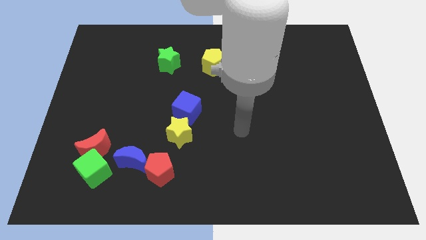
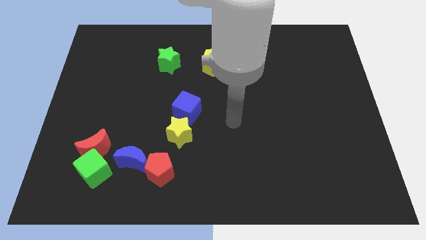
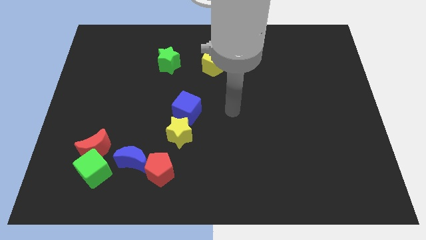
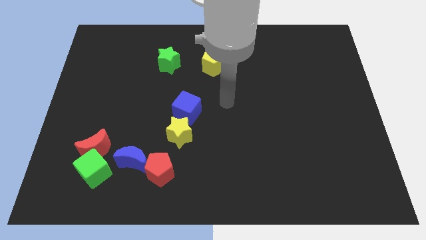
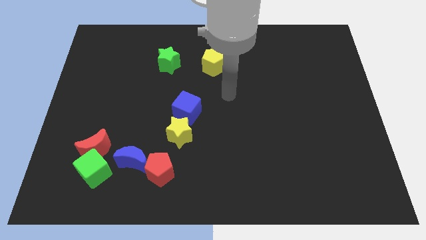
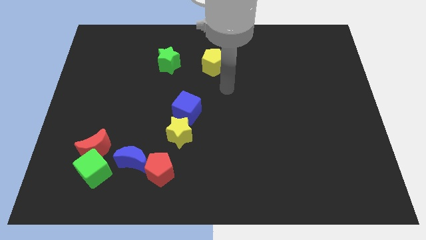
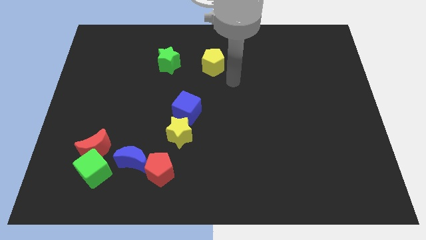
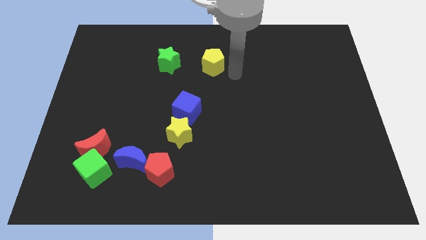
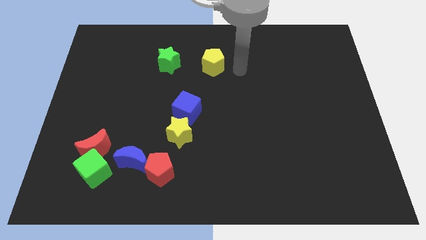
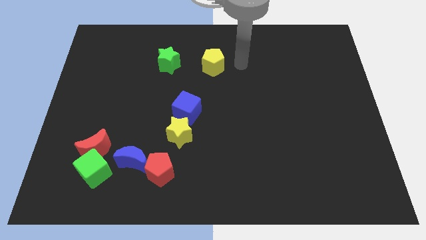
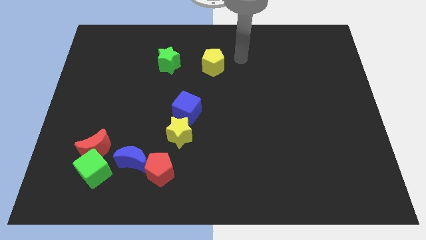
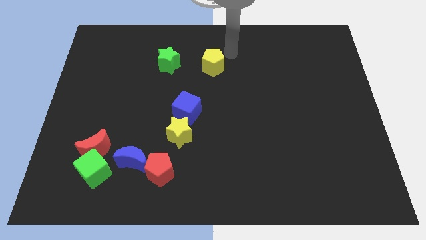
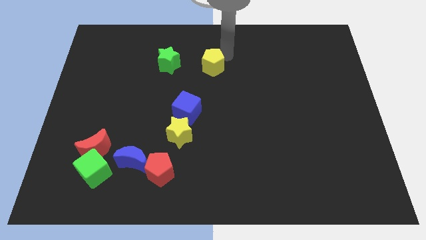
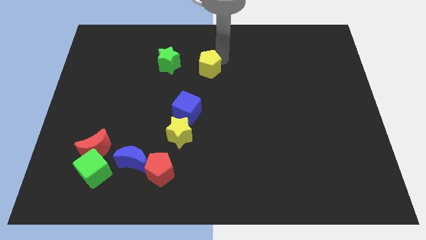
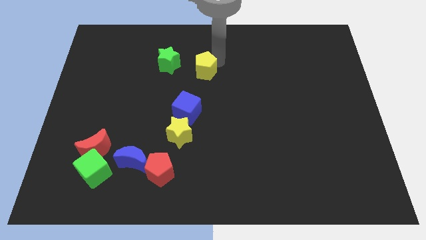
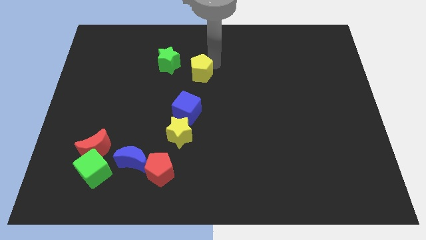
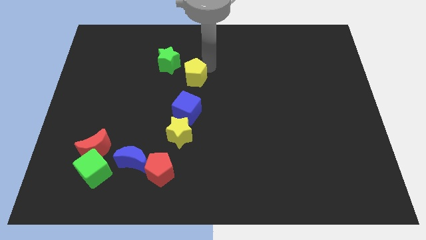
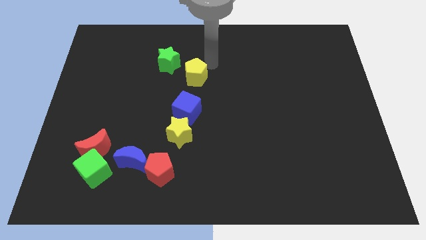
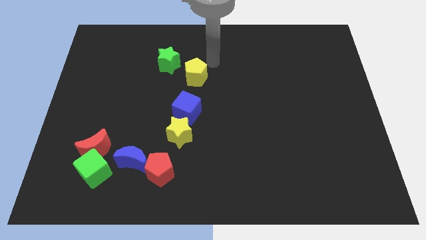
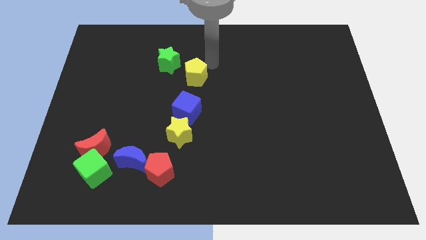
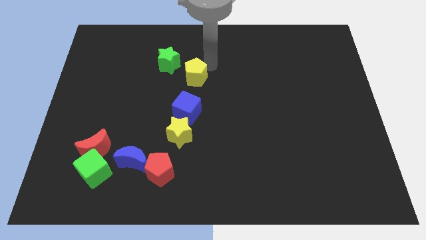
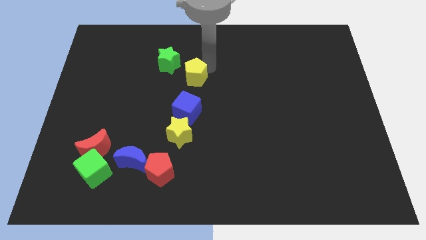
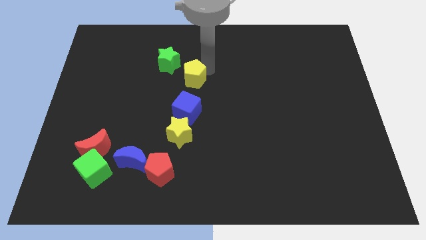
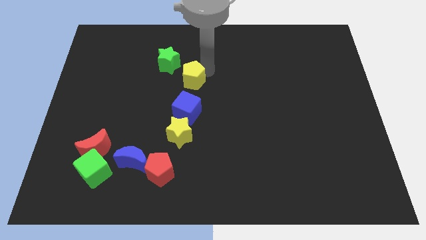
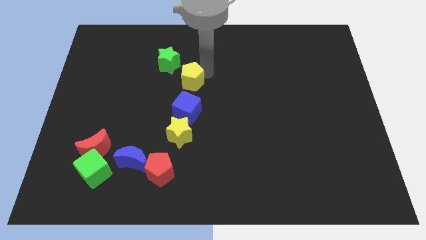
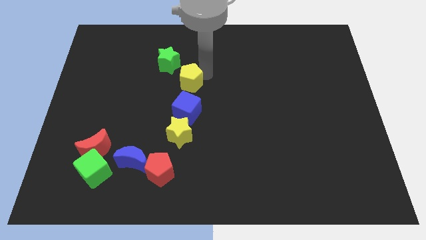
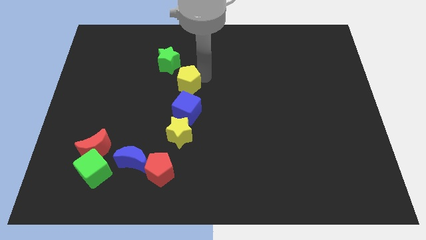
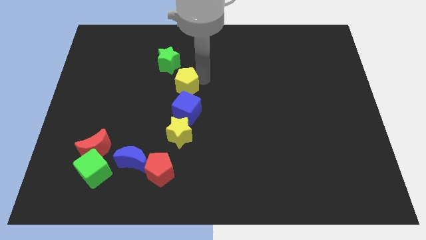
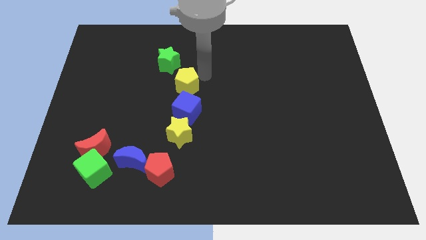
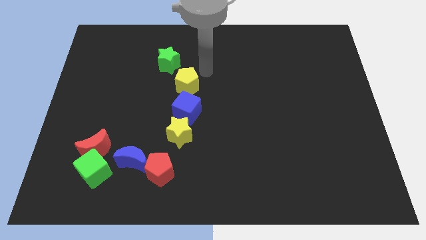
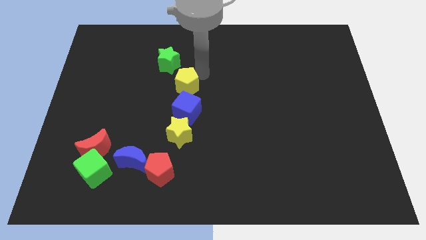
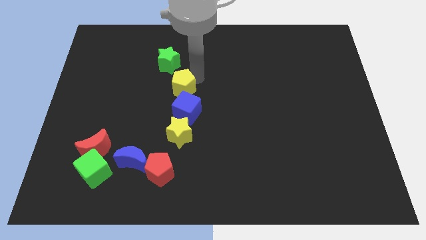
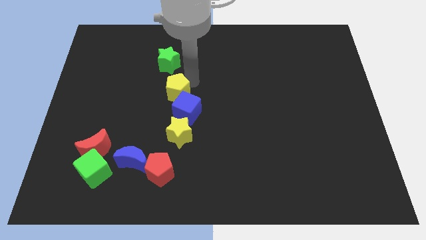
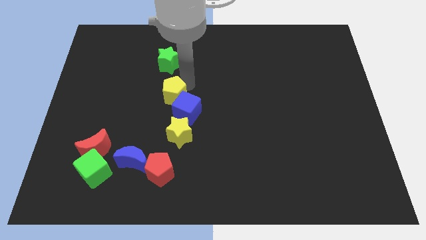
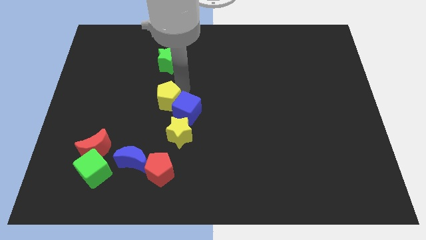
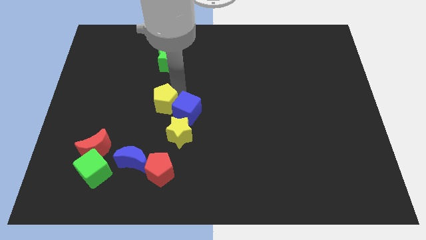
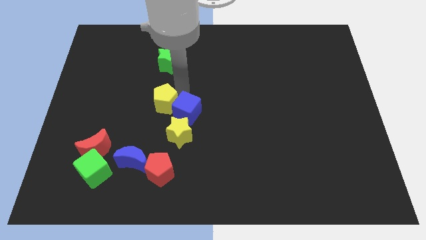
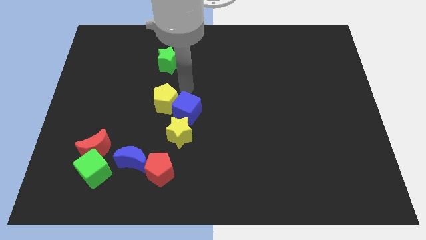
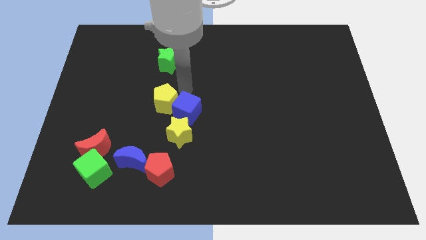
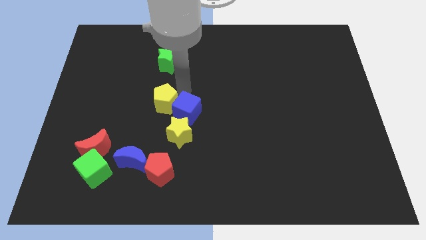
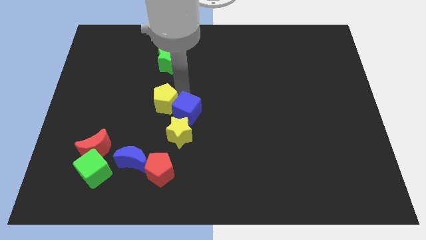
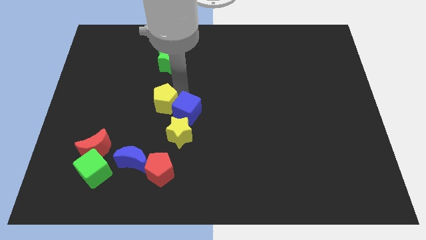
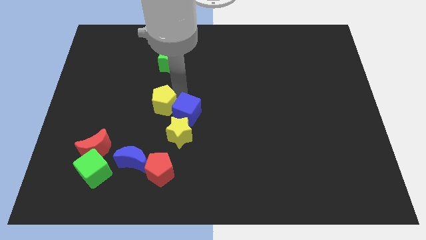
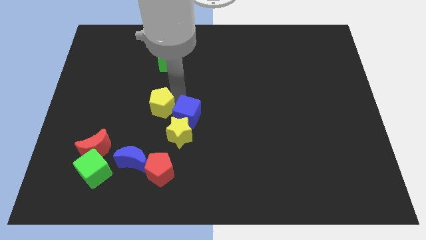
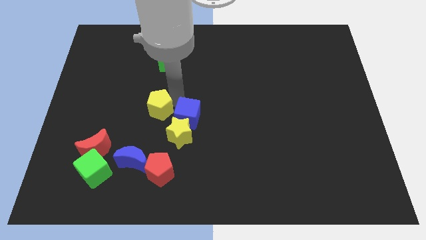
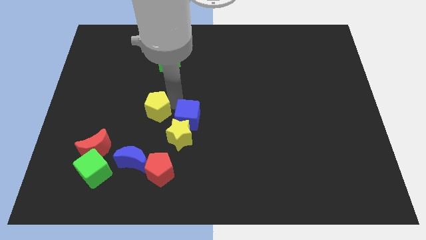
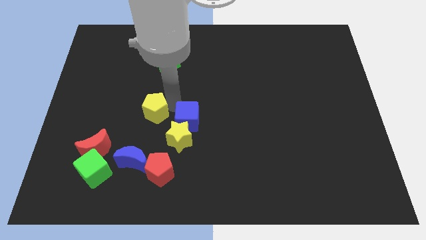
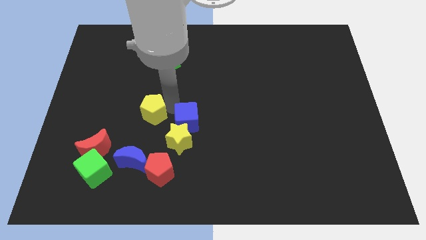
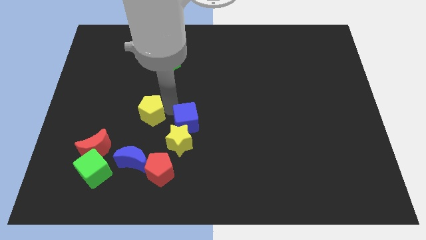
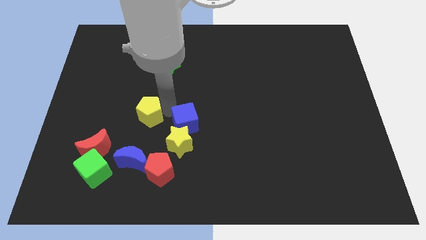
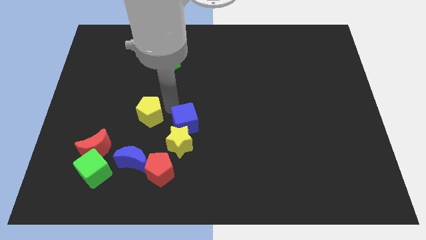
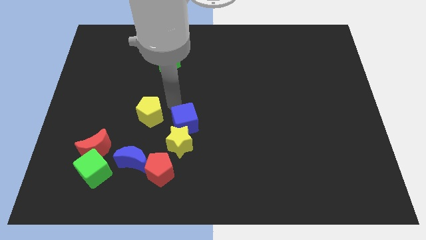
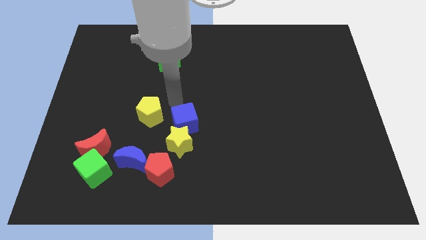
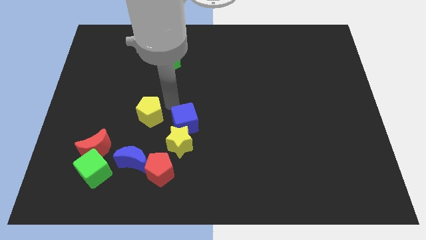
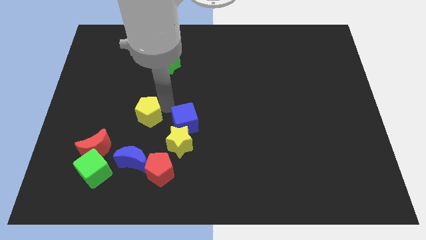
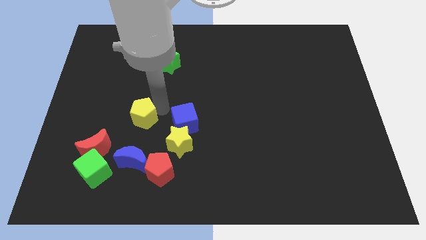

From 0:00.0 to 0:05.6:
put the yellow pentagon to the top right of the red moon

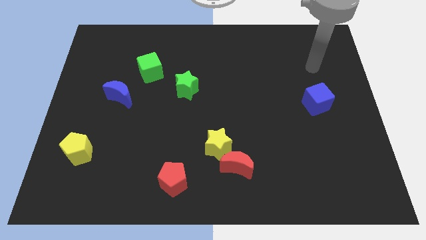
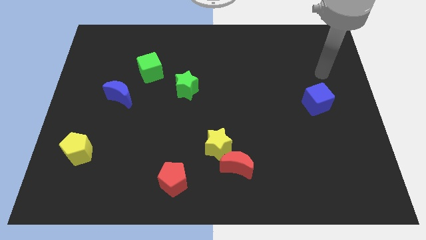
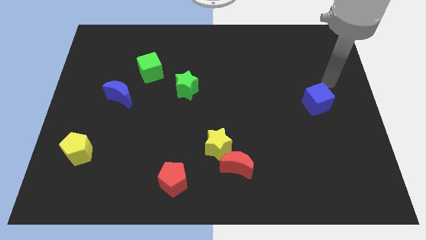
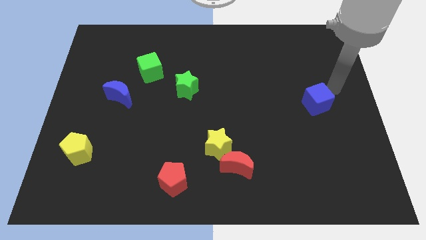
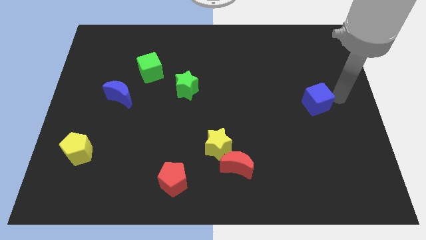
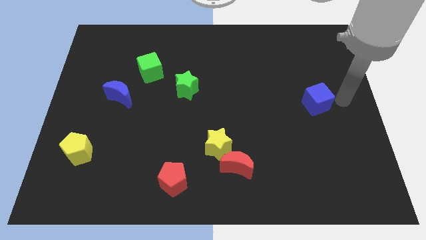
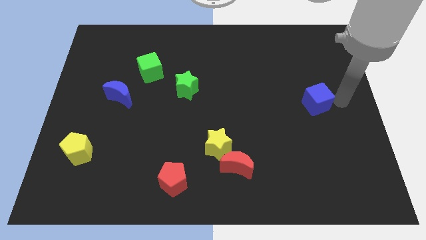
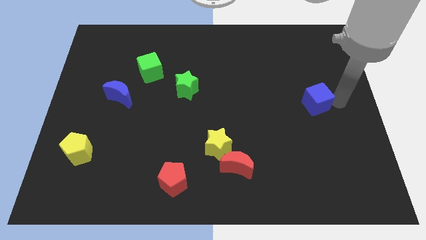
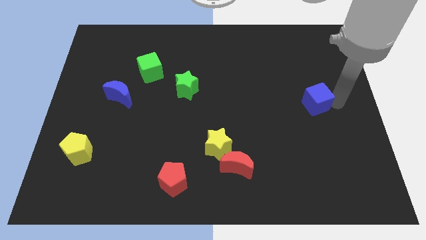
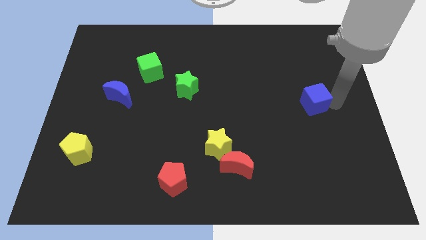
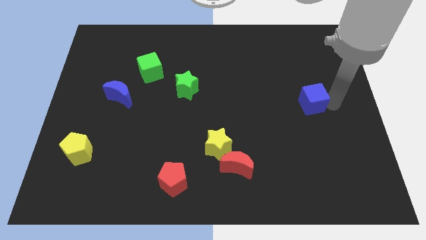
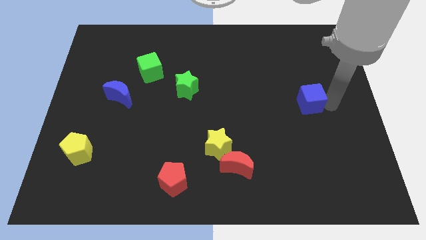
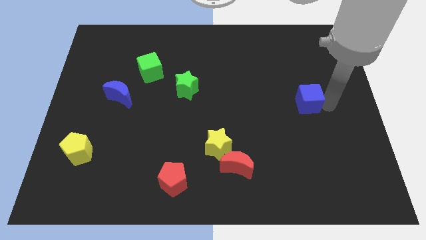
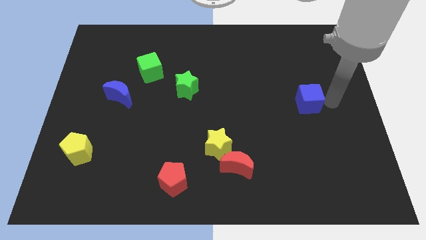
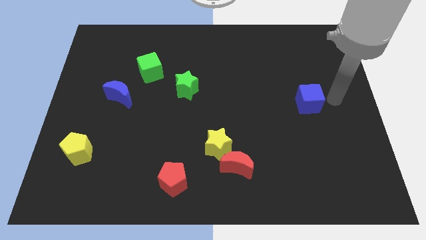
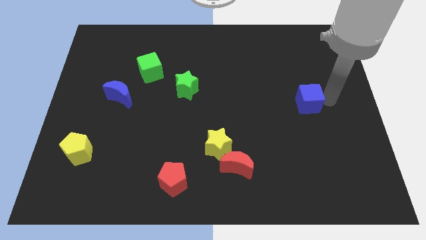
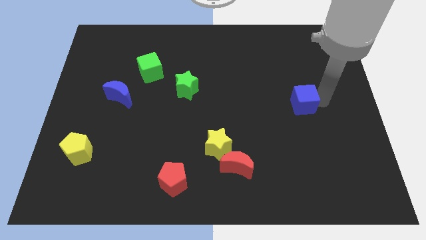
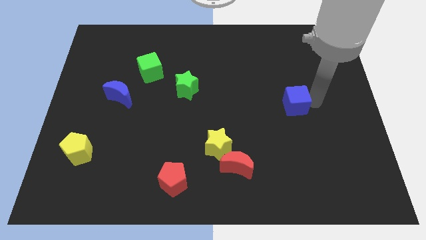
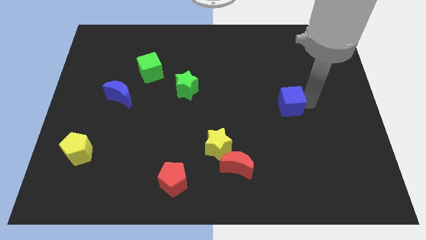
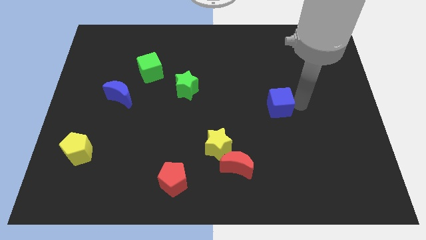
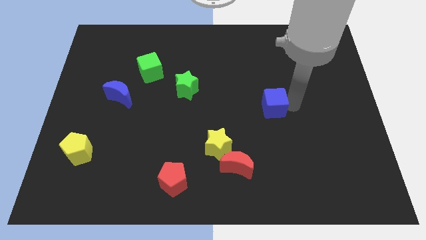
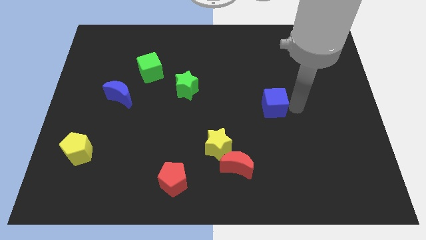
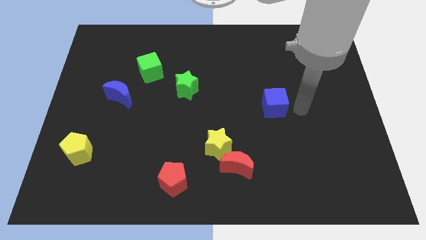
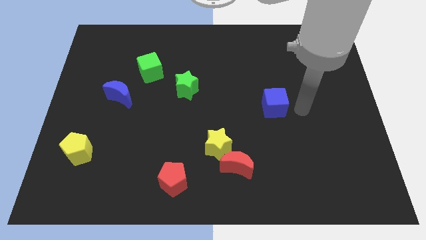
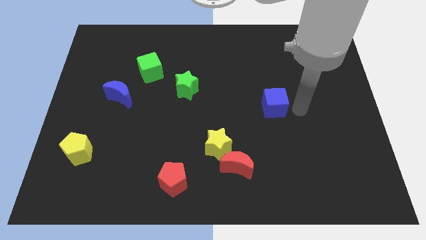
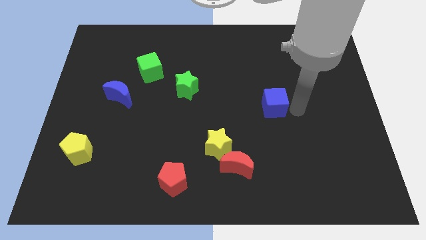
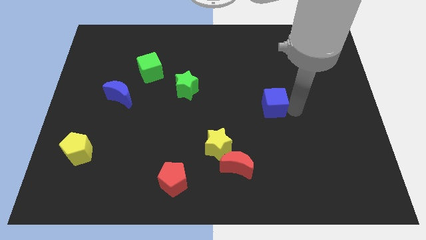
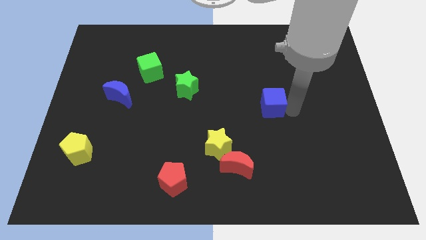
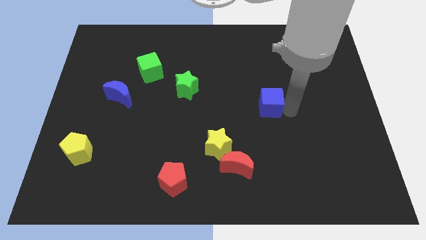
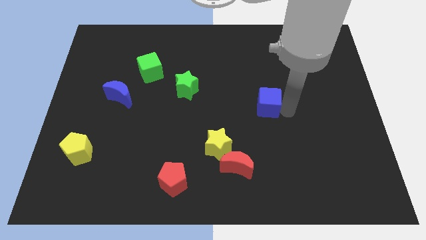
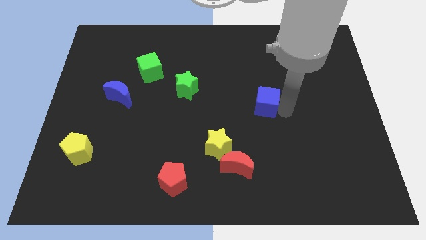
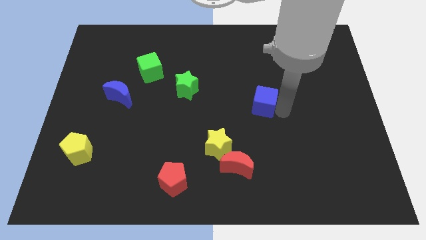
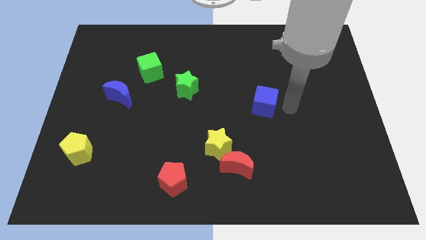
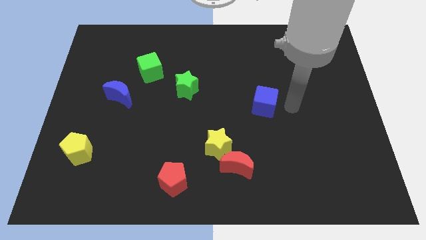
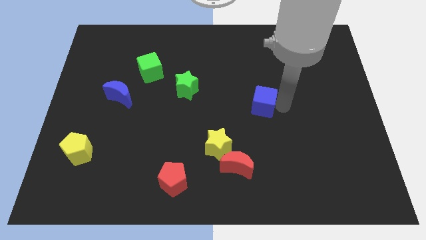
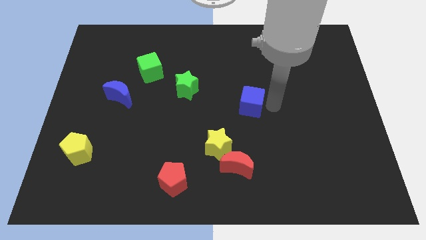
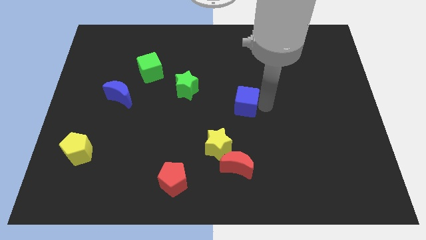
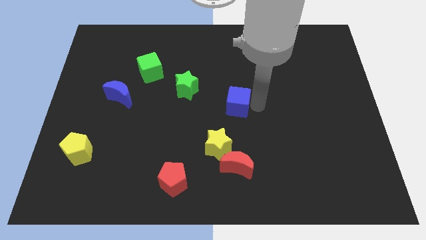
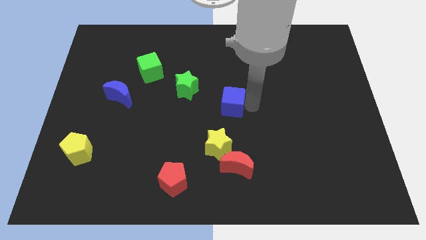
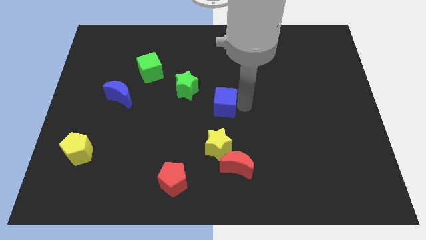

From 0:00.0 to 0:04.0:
slide the blue cube diagonally down and to the right of the green star
